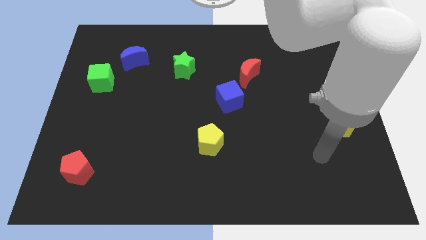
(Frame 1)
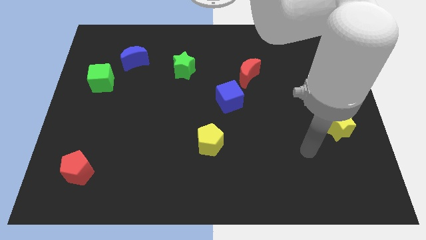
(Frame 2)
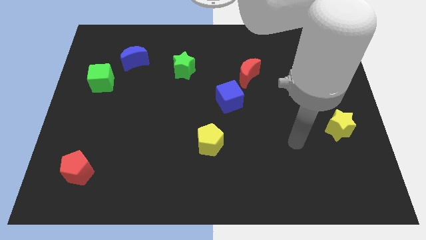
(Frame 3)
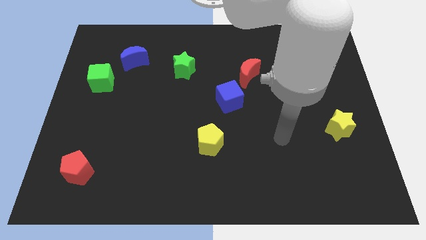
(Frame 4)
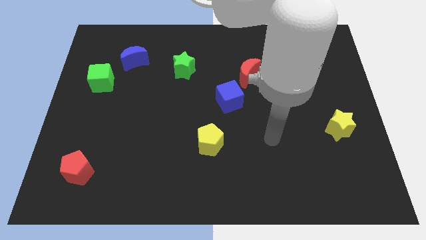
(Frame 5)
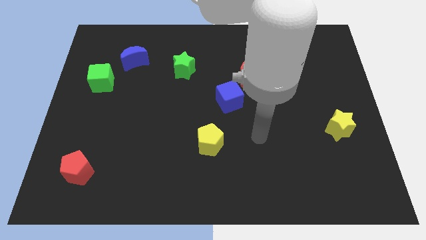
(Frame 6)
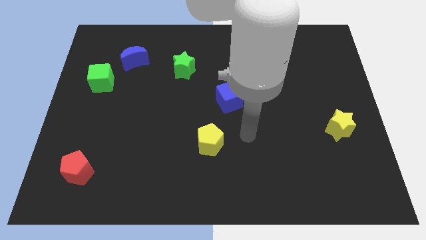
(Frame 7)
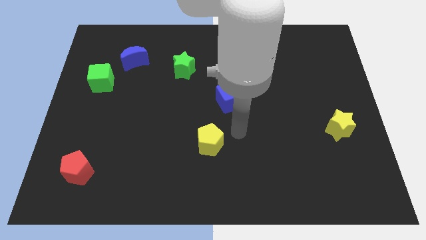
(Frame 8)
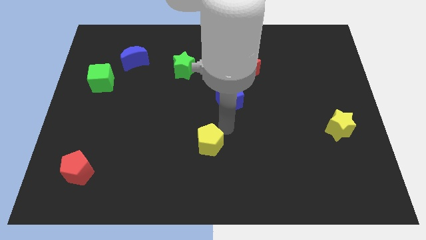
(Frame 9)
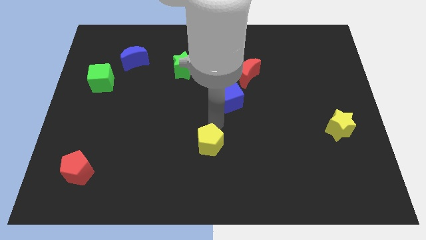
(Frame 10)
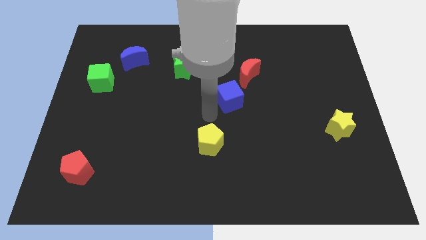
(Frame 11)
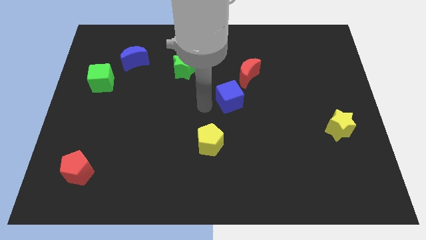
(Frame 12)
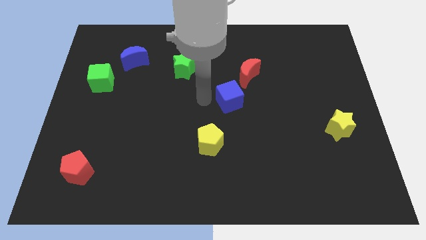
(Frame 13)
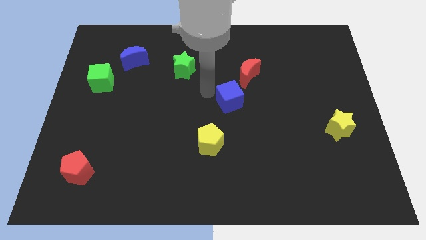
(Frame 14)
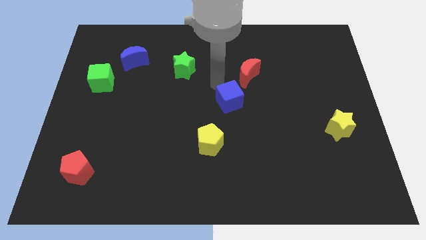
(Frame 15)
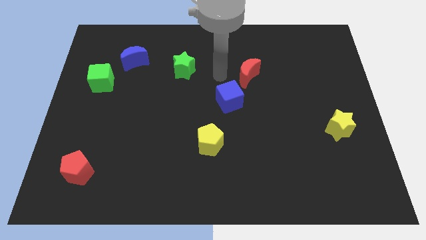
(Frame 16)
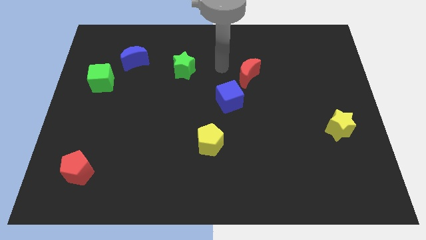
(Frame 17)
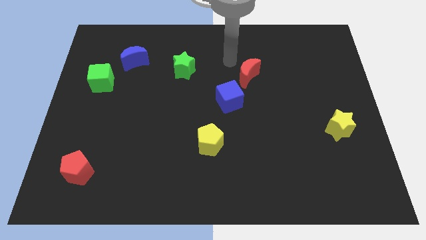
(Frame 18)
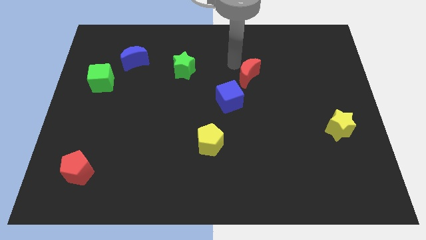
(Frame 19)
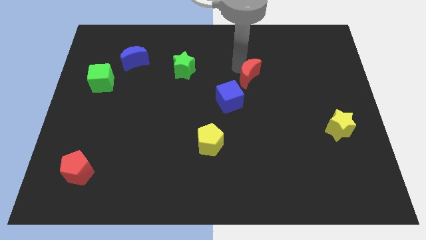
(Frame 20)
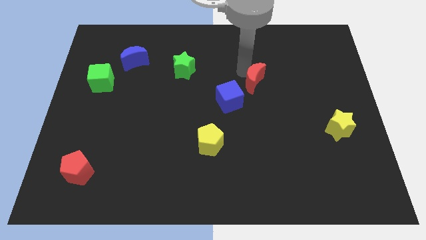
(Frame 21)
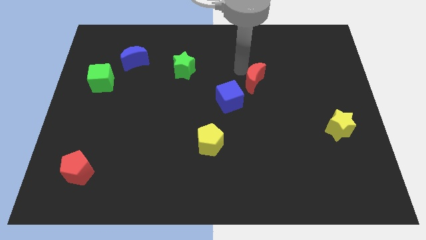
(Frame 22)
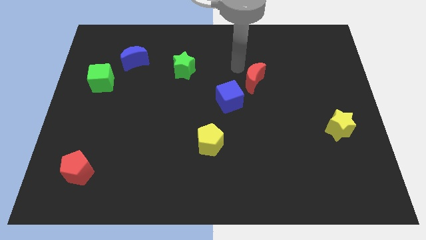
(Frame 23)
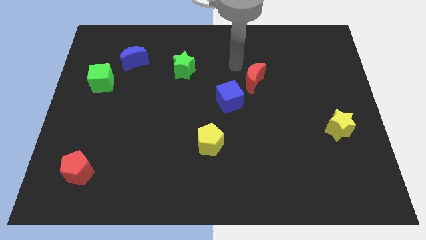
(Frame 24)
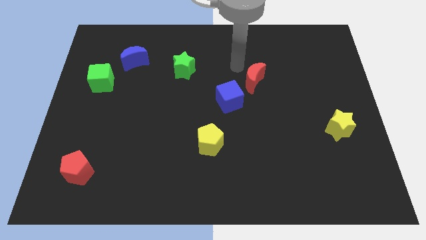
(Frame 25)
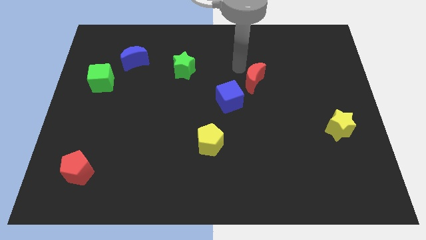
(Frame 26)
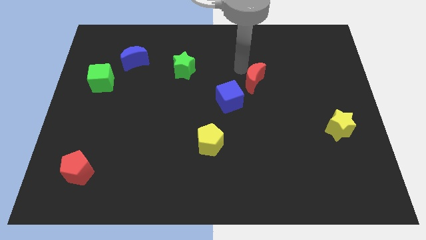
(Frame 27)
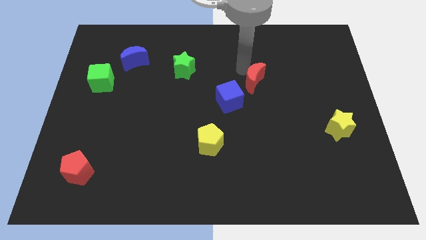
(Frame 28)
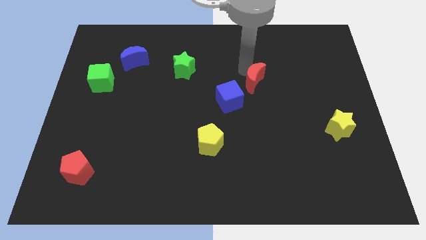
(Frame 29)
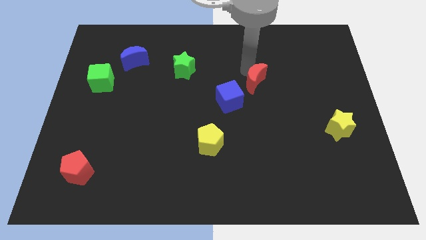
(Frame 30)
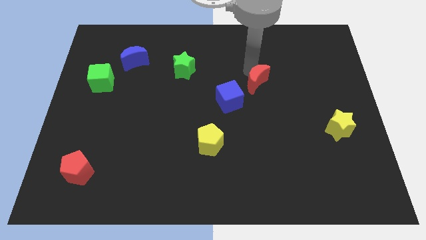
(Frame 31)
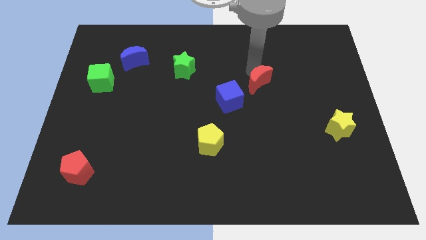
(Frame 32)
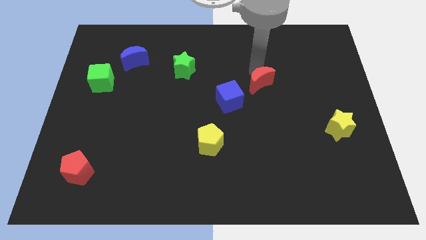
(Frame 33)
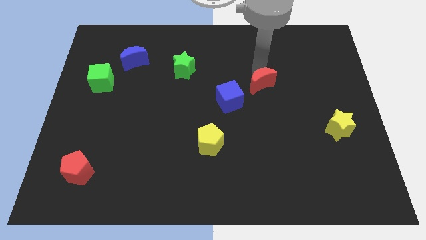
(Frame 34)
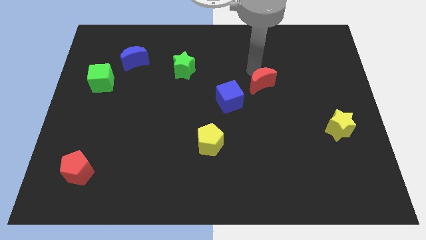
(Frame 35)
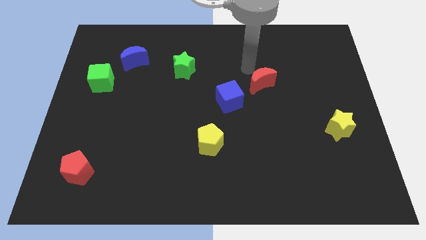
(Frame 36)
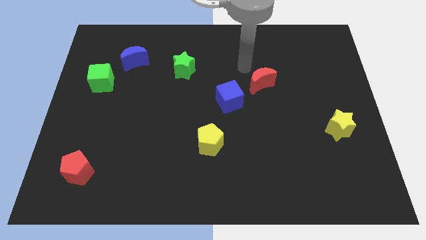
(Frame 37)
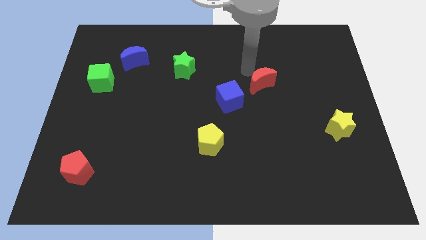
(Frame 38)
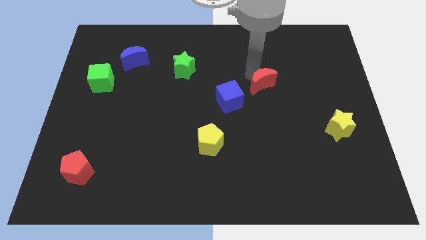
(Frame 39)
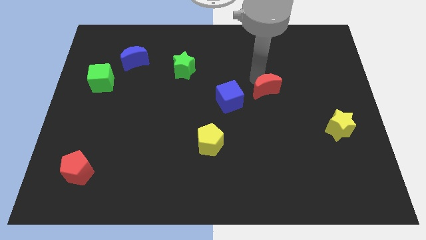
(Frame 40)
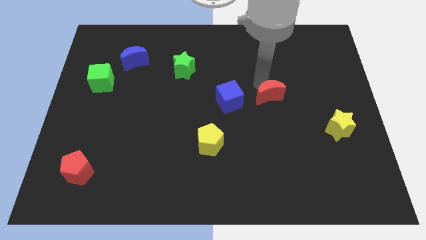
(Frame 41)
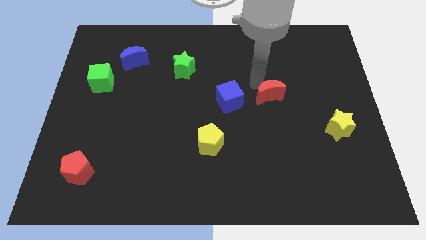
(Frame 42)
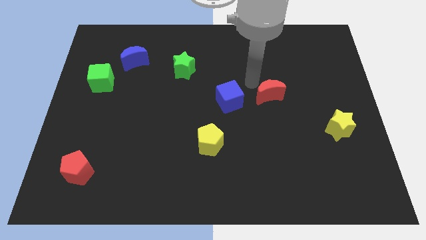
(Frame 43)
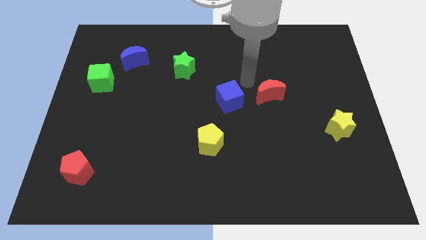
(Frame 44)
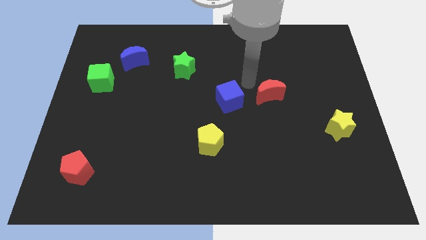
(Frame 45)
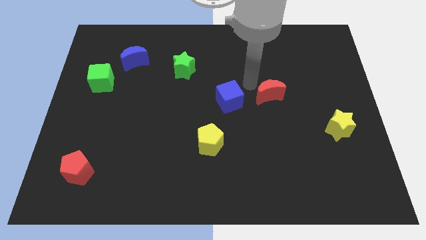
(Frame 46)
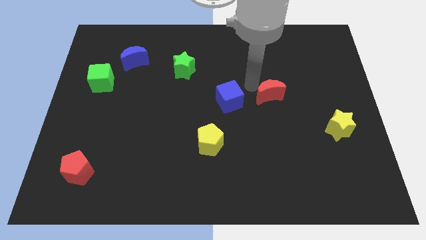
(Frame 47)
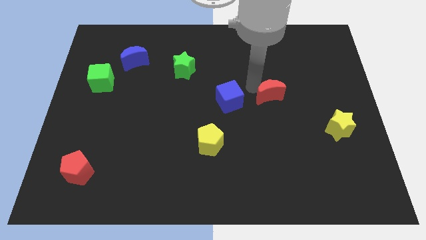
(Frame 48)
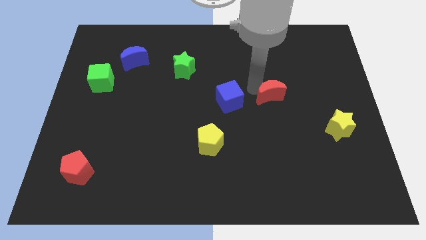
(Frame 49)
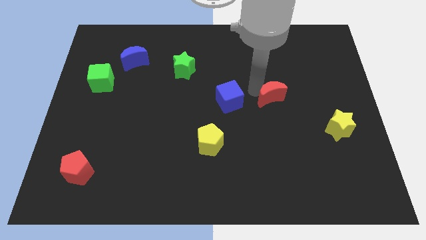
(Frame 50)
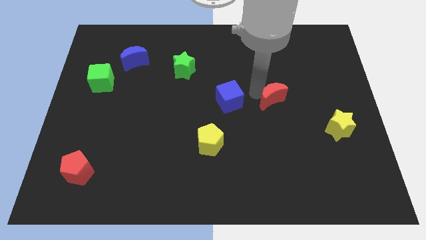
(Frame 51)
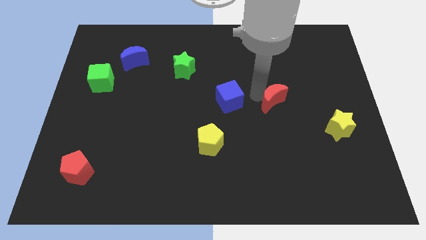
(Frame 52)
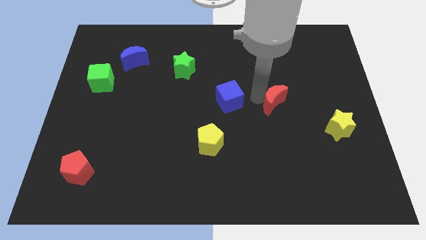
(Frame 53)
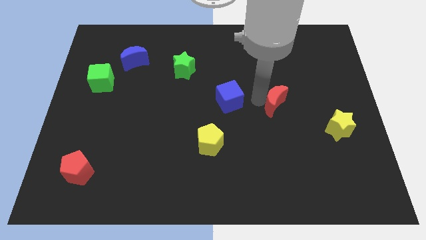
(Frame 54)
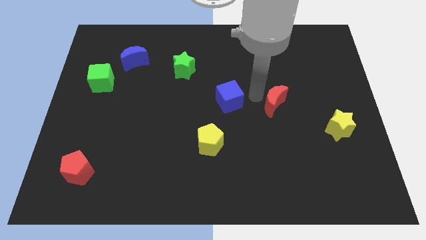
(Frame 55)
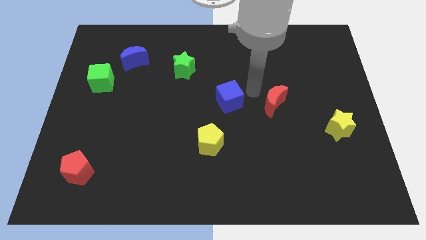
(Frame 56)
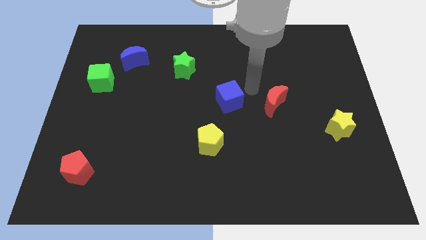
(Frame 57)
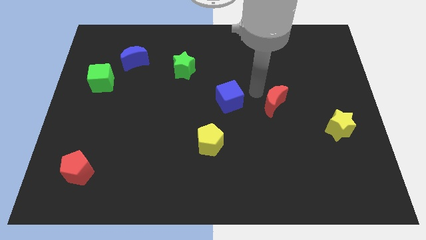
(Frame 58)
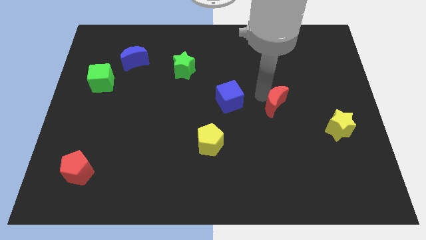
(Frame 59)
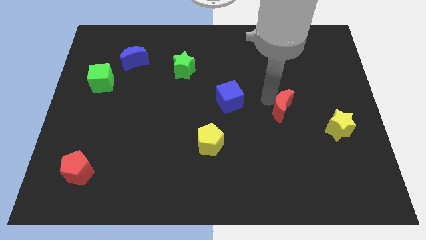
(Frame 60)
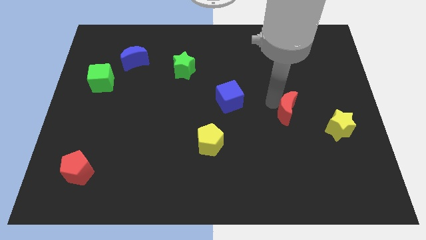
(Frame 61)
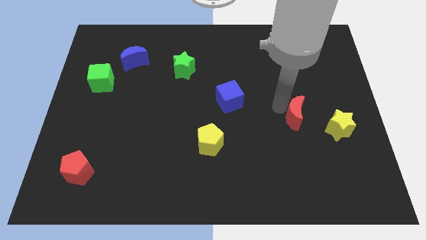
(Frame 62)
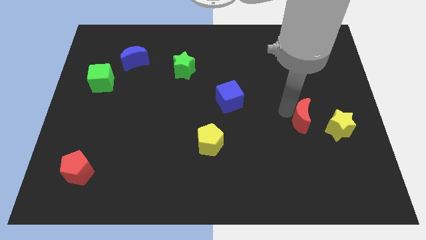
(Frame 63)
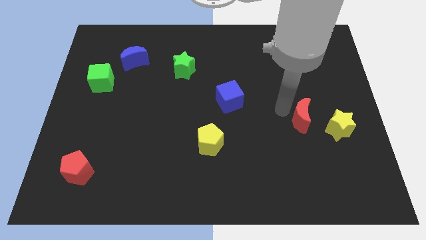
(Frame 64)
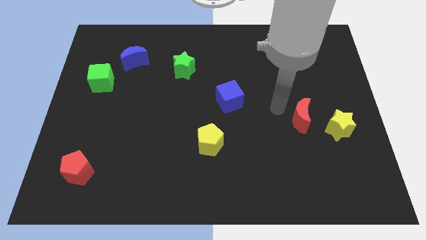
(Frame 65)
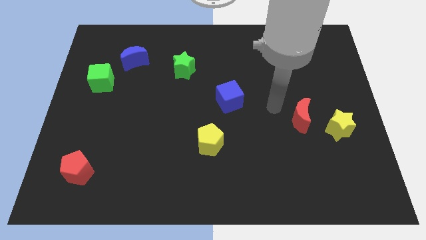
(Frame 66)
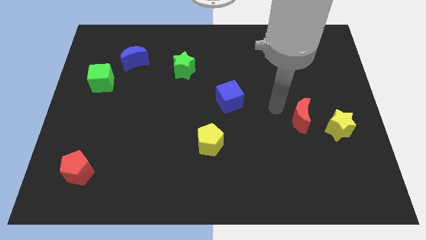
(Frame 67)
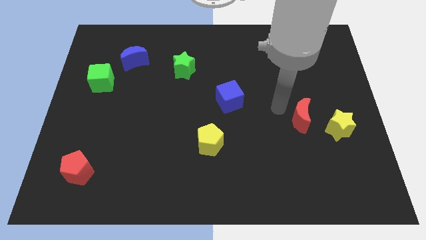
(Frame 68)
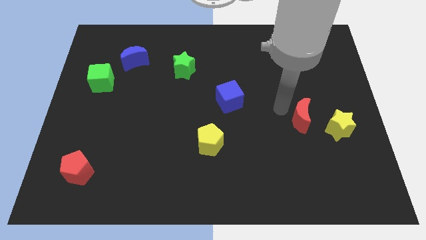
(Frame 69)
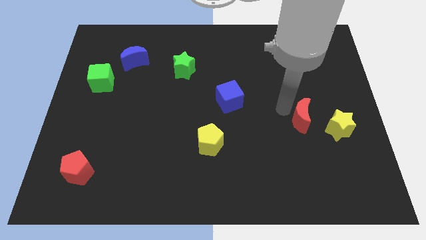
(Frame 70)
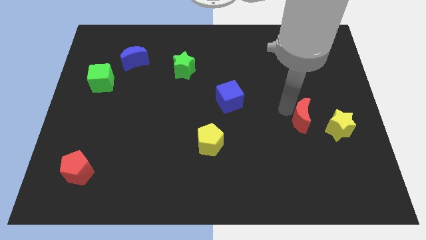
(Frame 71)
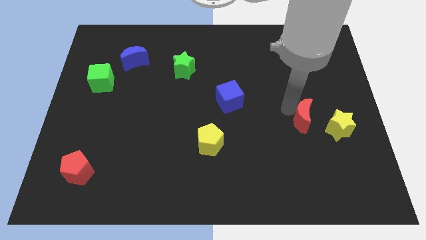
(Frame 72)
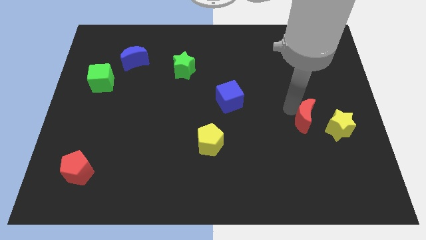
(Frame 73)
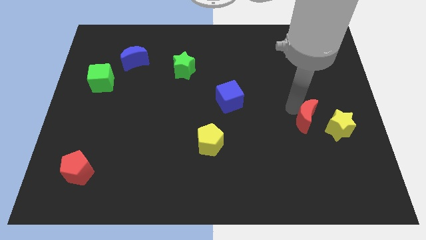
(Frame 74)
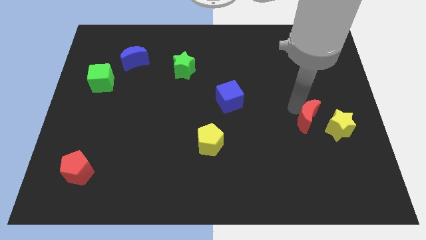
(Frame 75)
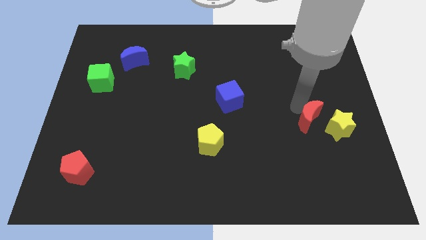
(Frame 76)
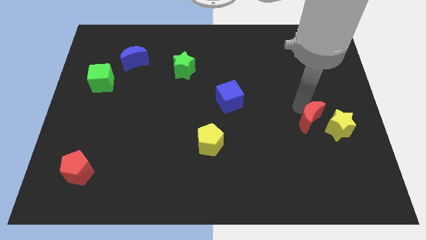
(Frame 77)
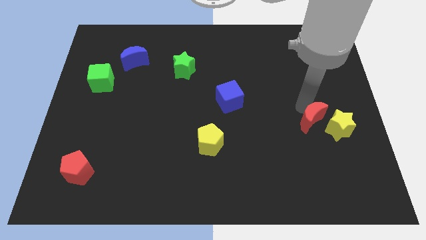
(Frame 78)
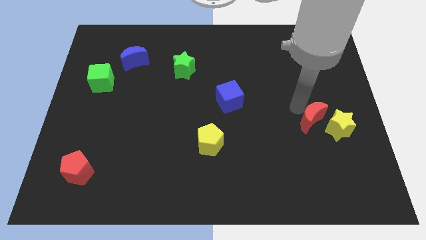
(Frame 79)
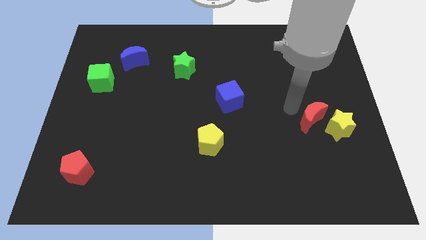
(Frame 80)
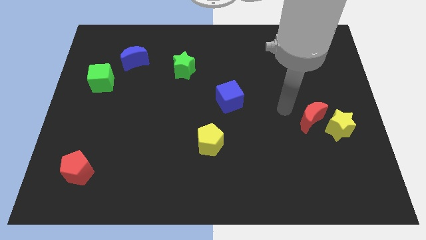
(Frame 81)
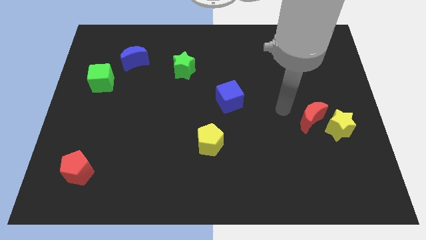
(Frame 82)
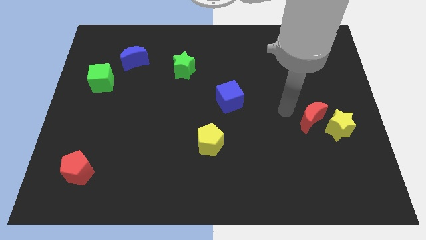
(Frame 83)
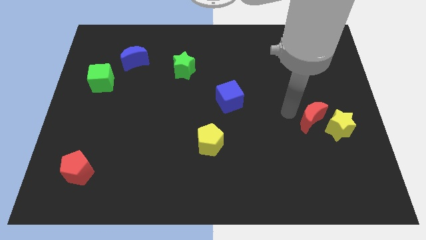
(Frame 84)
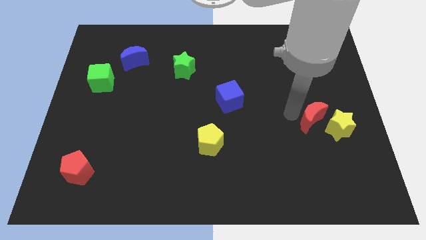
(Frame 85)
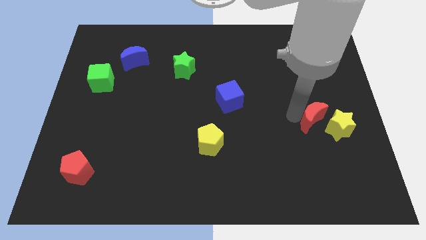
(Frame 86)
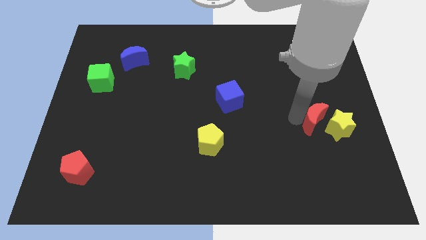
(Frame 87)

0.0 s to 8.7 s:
slide the red moon close to the yellow star
